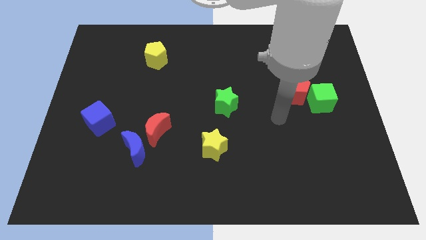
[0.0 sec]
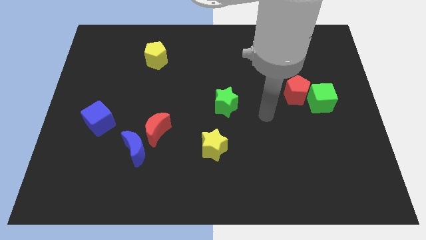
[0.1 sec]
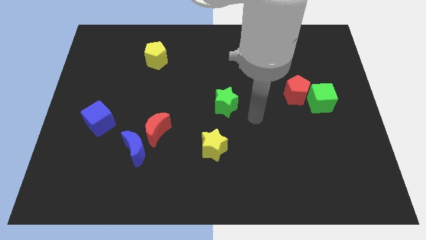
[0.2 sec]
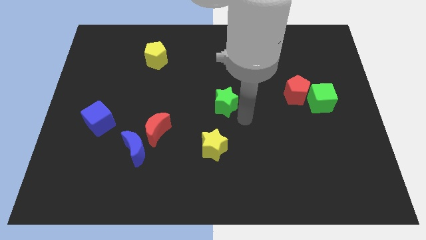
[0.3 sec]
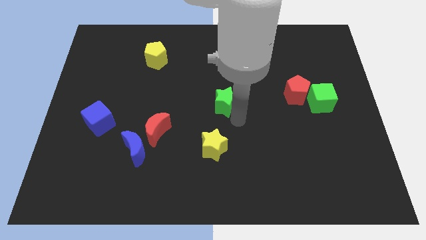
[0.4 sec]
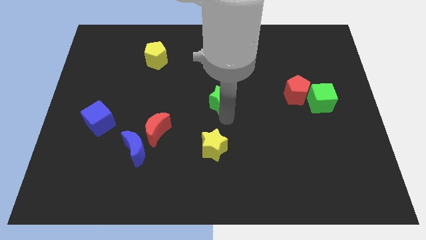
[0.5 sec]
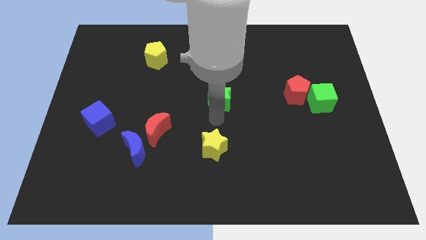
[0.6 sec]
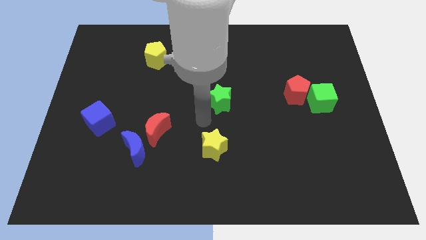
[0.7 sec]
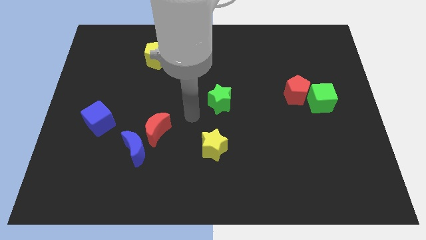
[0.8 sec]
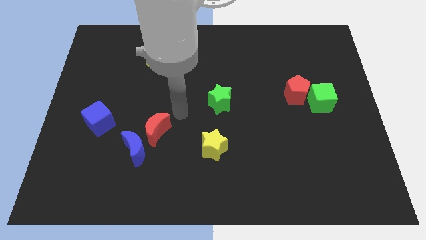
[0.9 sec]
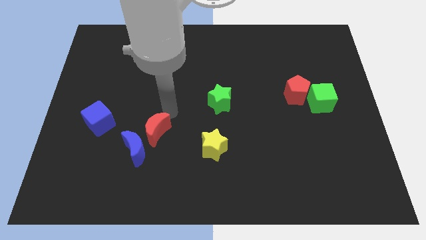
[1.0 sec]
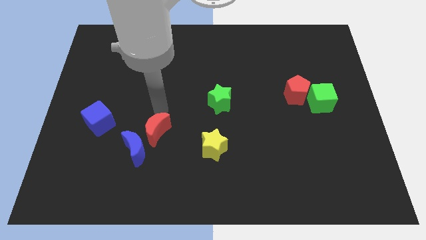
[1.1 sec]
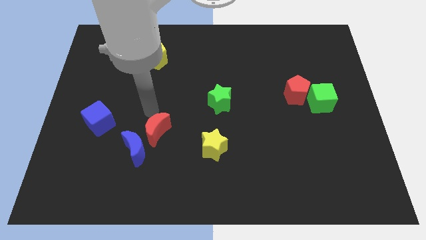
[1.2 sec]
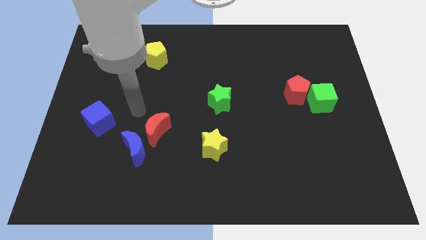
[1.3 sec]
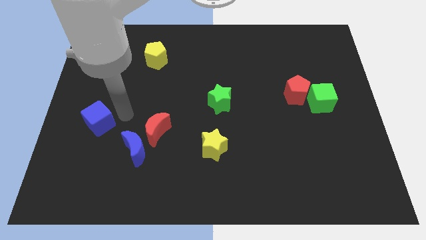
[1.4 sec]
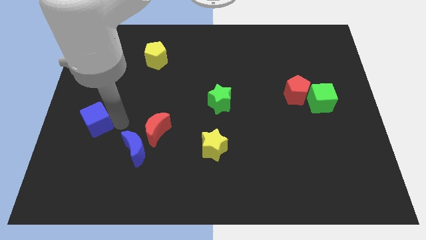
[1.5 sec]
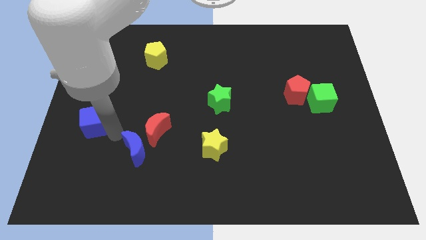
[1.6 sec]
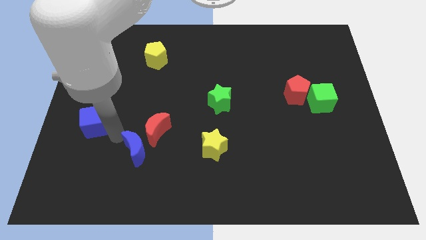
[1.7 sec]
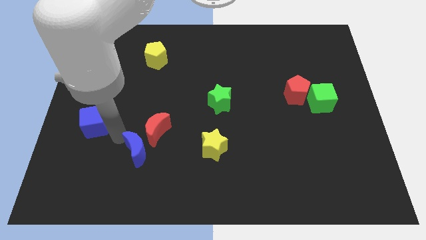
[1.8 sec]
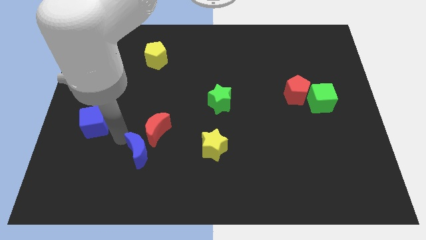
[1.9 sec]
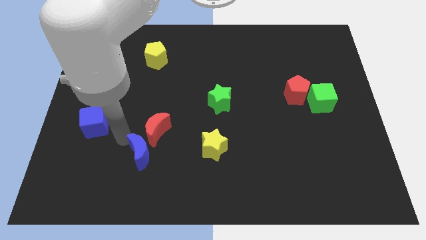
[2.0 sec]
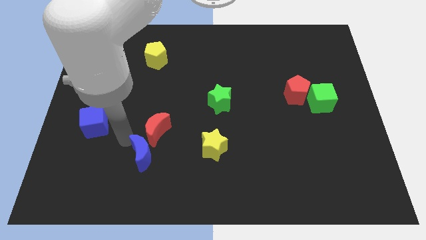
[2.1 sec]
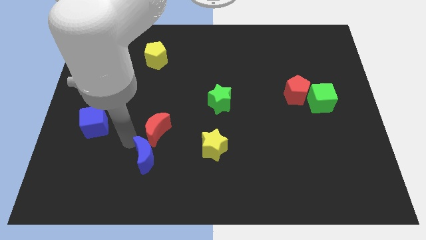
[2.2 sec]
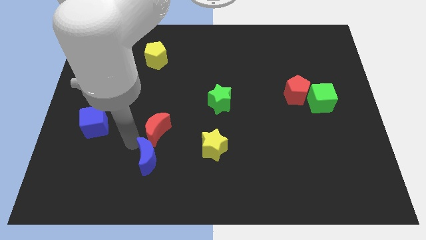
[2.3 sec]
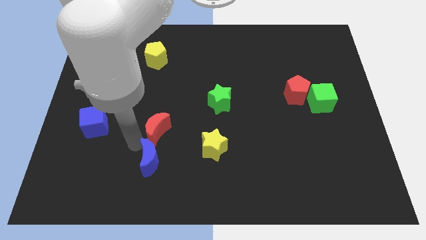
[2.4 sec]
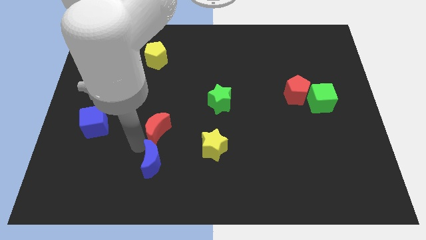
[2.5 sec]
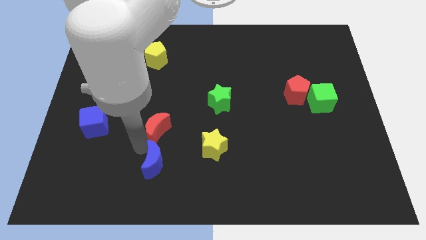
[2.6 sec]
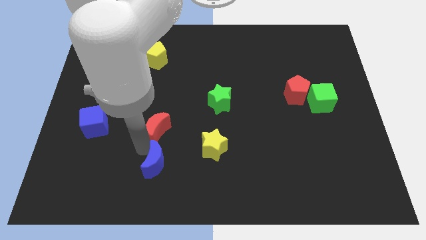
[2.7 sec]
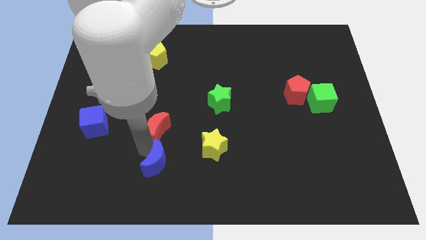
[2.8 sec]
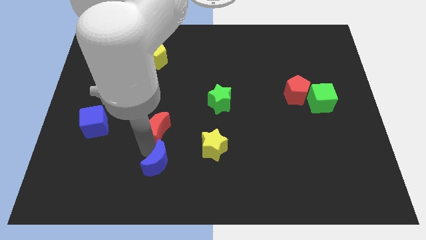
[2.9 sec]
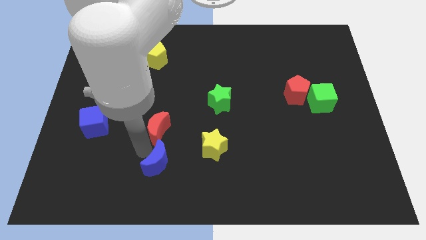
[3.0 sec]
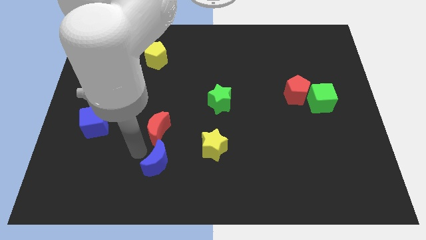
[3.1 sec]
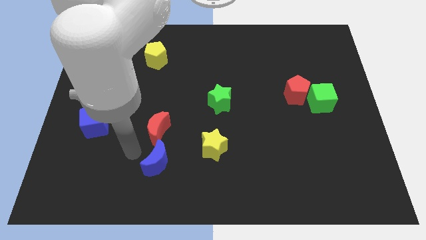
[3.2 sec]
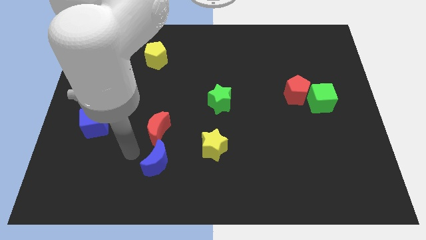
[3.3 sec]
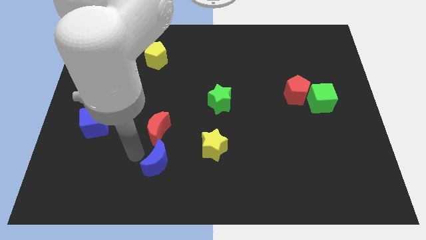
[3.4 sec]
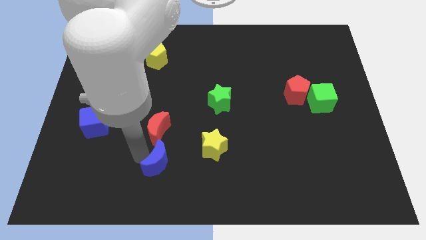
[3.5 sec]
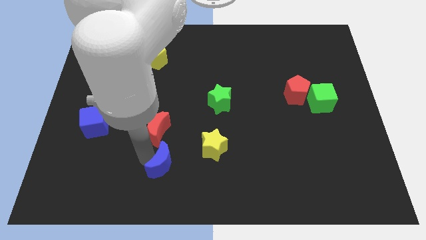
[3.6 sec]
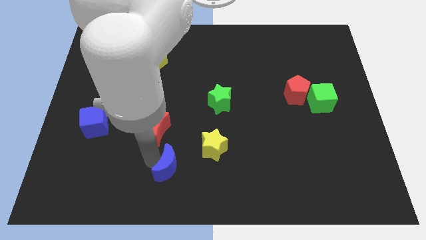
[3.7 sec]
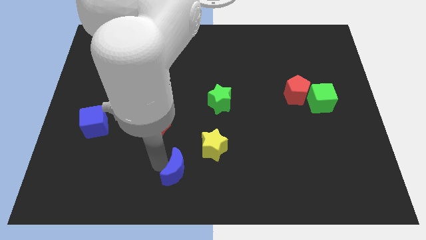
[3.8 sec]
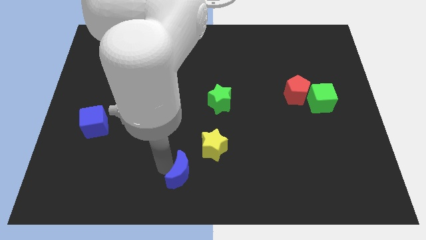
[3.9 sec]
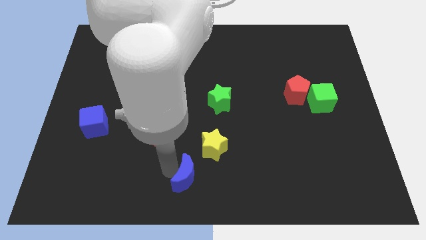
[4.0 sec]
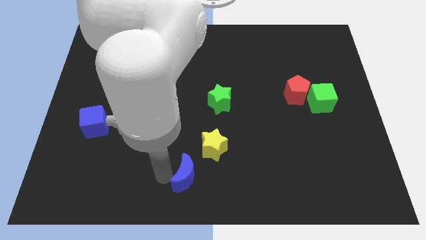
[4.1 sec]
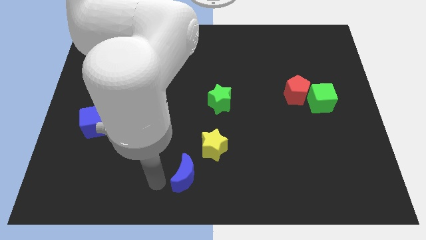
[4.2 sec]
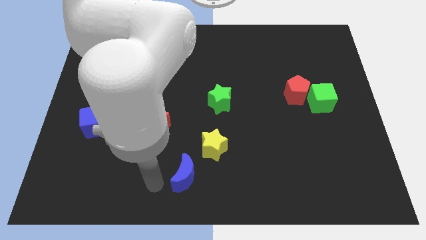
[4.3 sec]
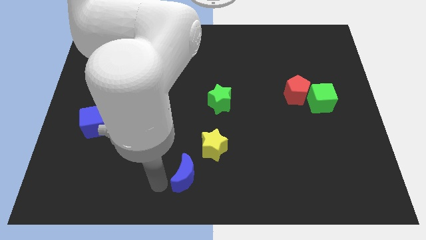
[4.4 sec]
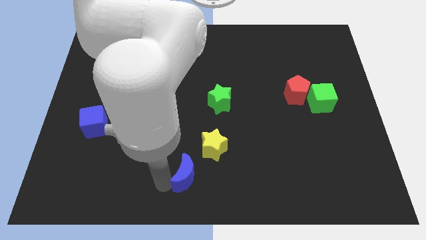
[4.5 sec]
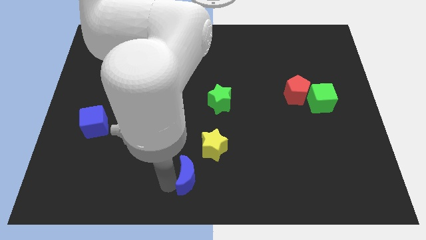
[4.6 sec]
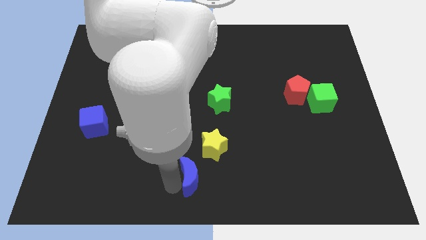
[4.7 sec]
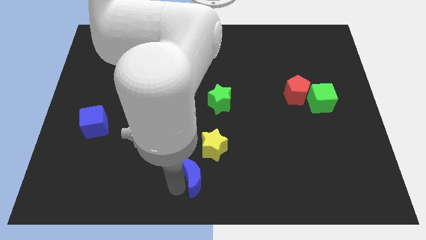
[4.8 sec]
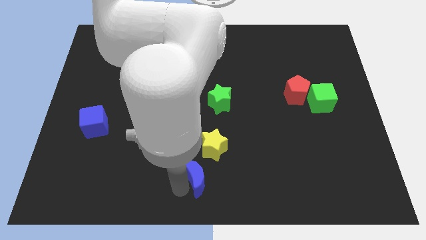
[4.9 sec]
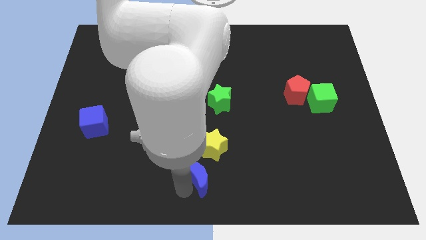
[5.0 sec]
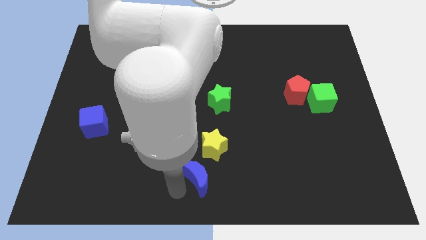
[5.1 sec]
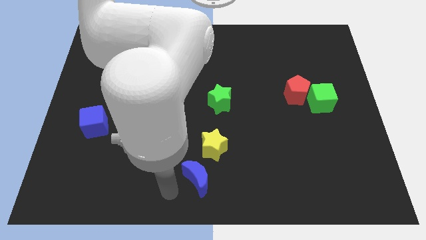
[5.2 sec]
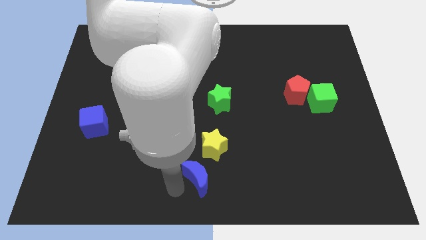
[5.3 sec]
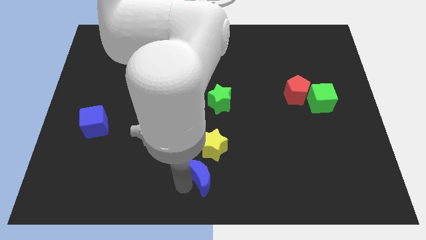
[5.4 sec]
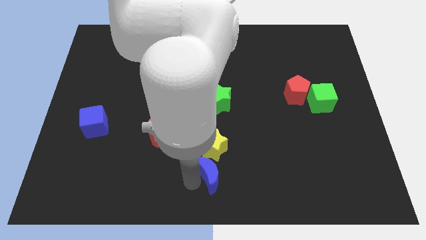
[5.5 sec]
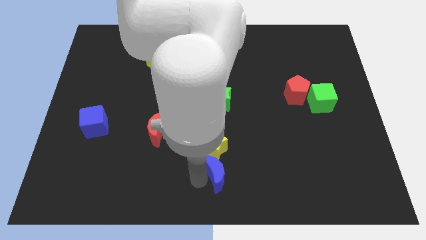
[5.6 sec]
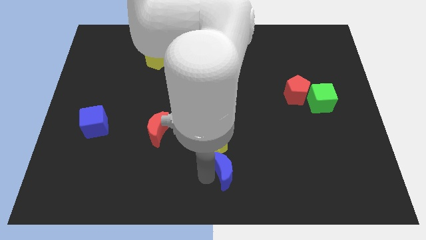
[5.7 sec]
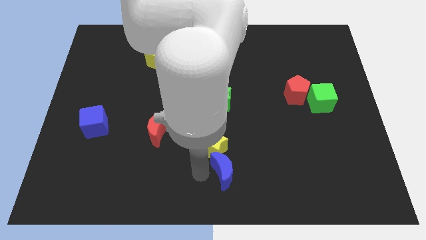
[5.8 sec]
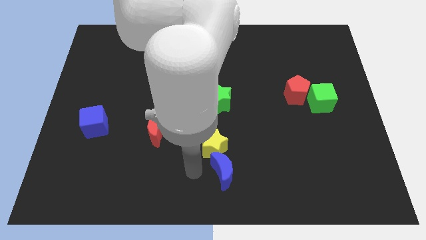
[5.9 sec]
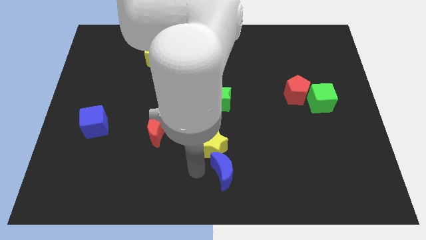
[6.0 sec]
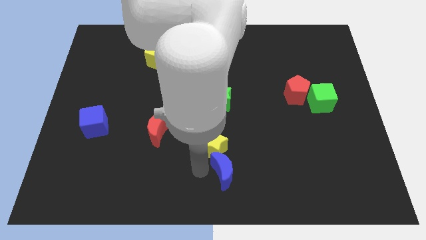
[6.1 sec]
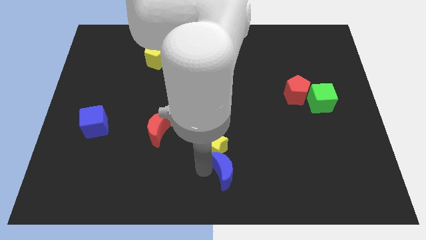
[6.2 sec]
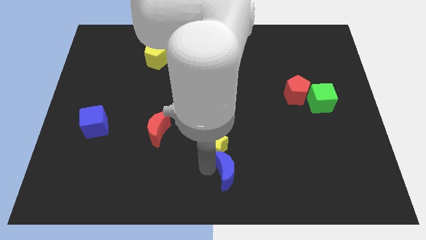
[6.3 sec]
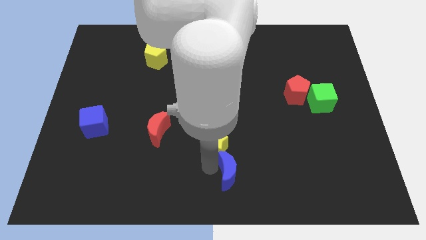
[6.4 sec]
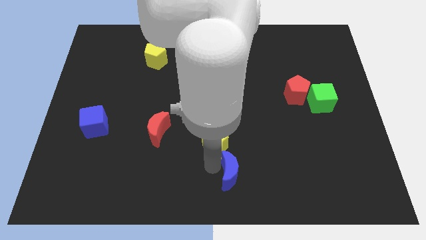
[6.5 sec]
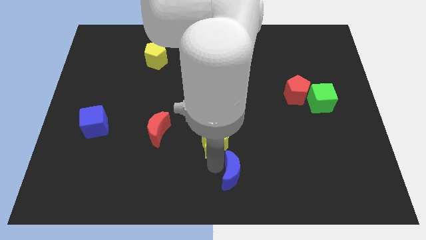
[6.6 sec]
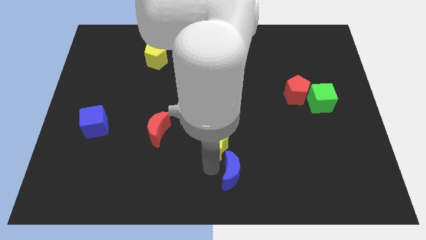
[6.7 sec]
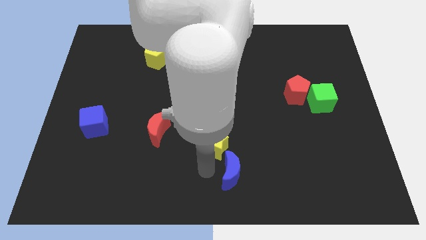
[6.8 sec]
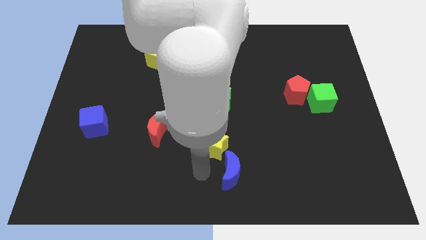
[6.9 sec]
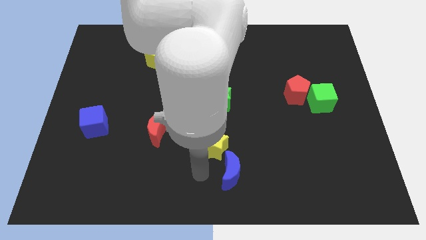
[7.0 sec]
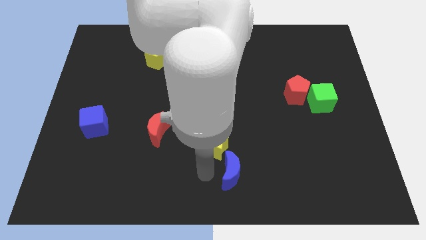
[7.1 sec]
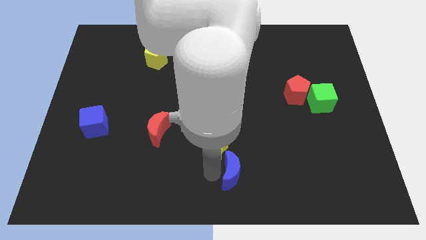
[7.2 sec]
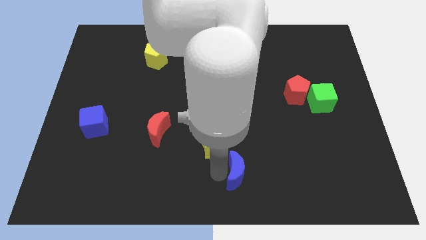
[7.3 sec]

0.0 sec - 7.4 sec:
move the blue moon right

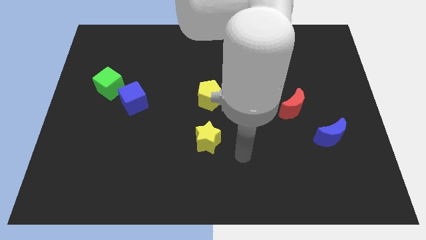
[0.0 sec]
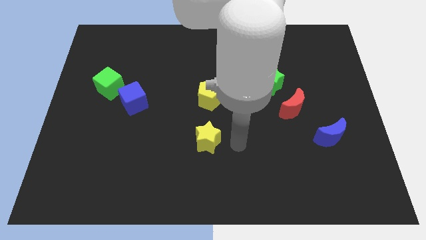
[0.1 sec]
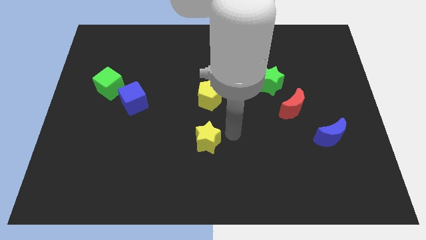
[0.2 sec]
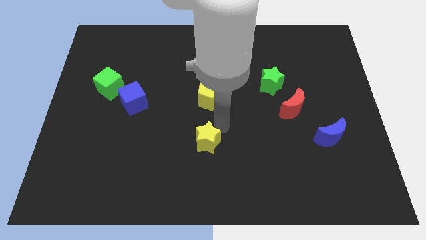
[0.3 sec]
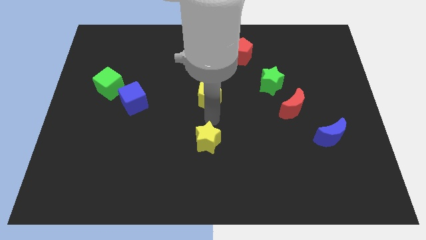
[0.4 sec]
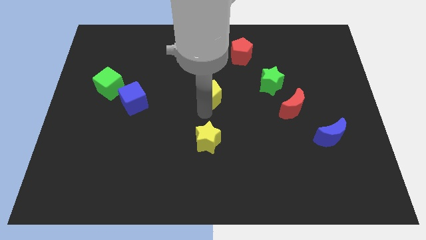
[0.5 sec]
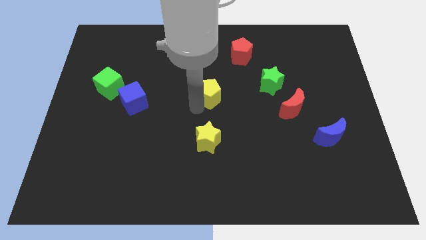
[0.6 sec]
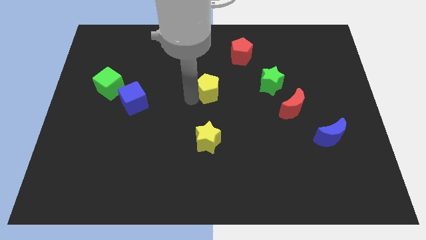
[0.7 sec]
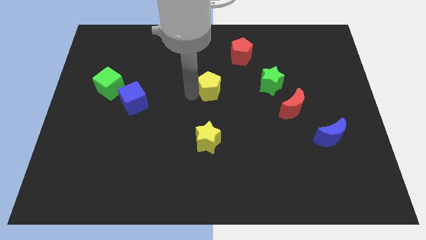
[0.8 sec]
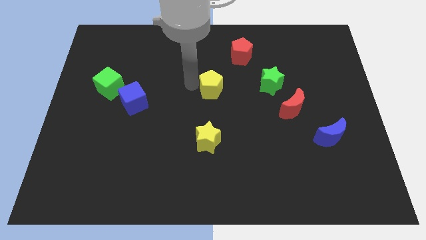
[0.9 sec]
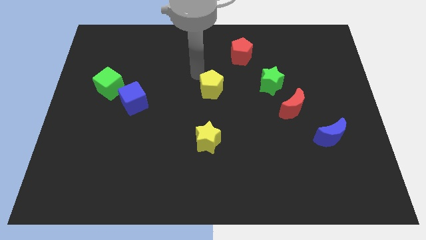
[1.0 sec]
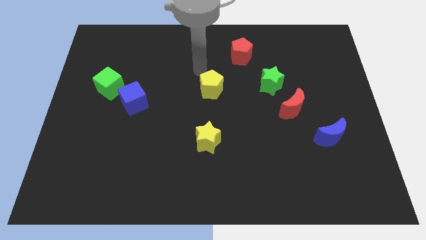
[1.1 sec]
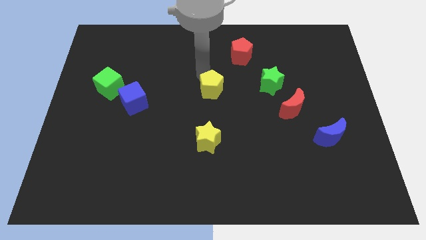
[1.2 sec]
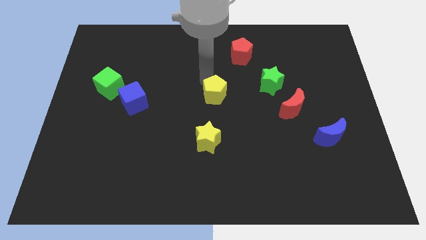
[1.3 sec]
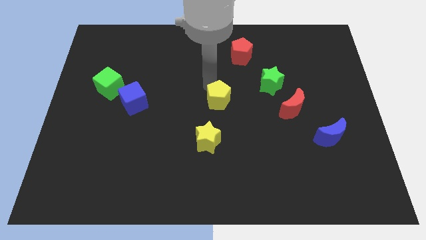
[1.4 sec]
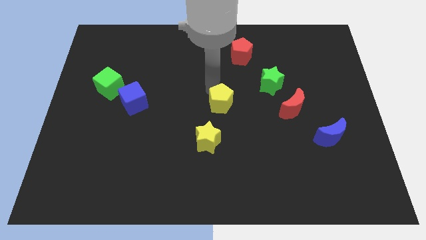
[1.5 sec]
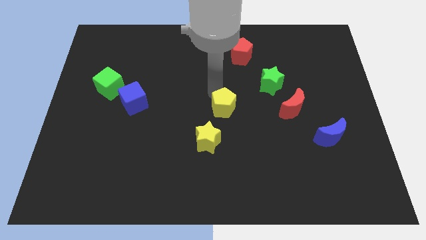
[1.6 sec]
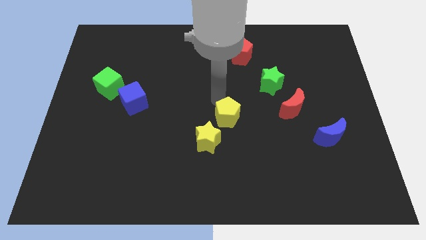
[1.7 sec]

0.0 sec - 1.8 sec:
push the yellow pentagon diagonally downwards and to the right slightly
